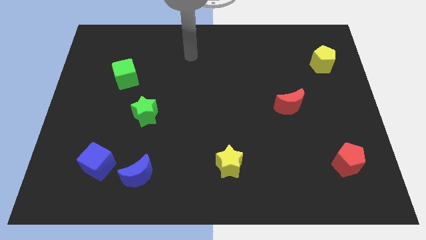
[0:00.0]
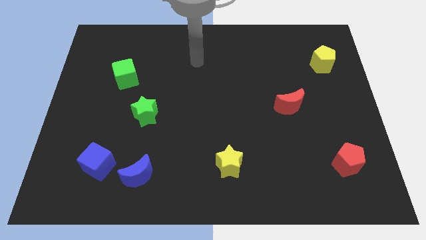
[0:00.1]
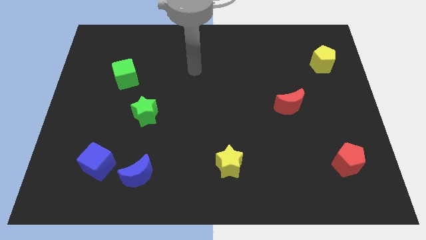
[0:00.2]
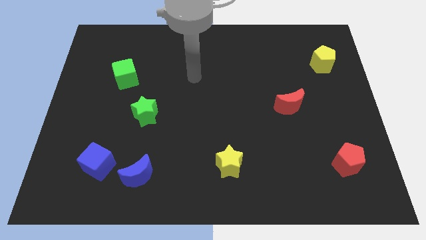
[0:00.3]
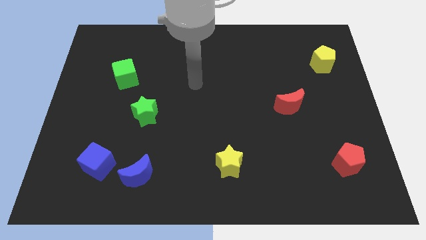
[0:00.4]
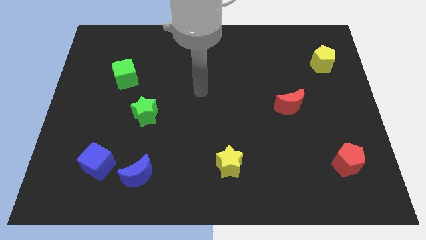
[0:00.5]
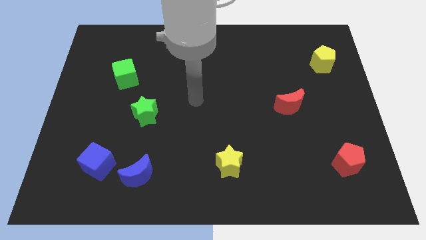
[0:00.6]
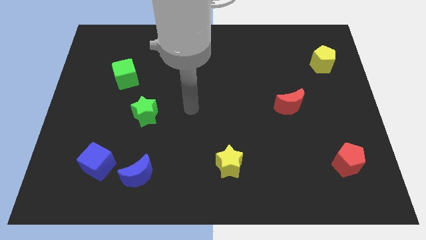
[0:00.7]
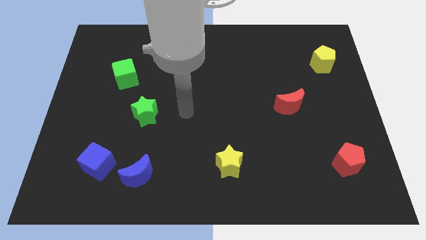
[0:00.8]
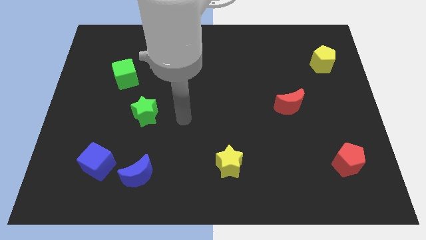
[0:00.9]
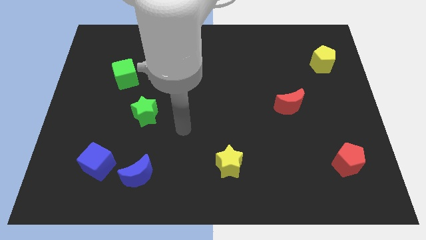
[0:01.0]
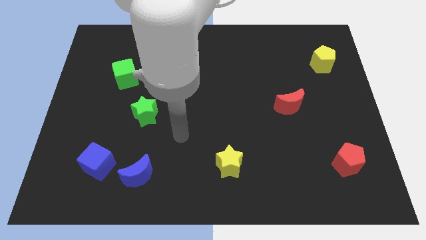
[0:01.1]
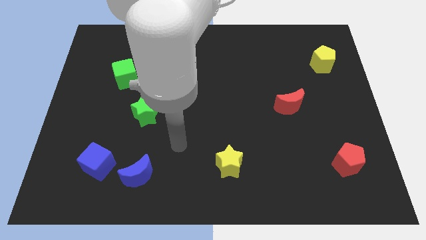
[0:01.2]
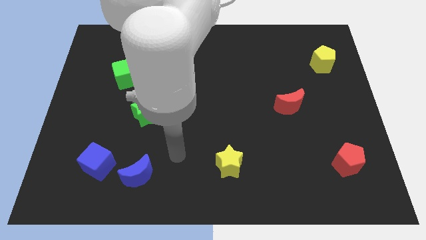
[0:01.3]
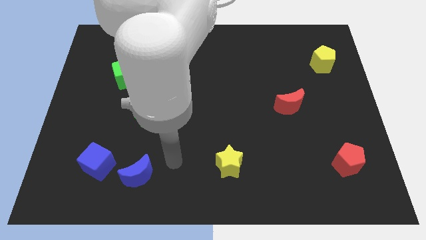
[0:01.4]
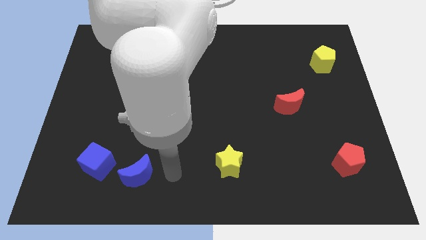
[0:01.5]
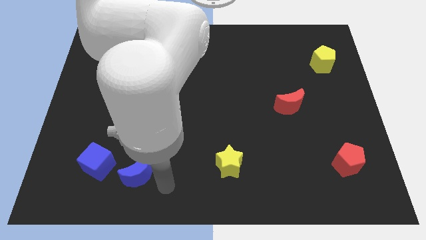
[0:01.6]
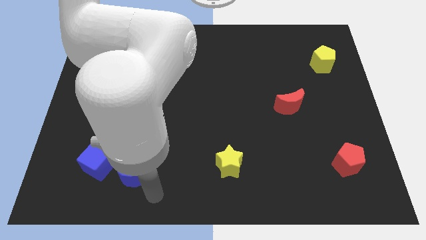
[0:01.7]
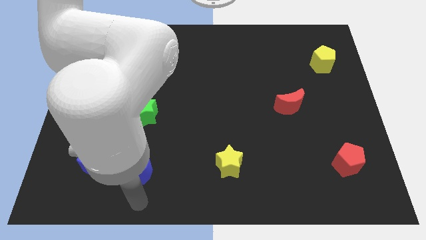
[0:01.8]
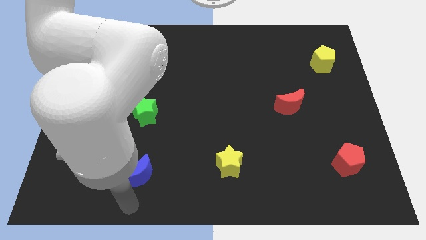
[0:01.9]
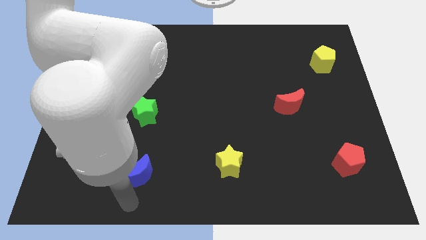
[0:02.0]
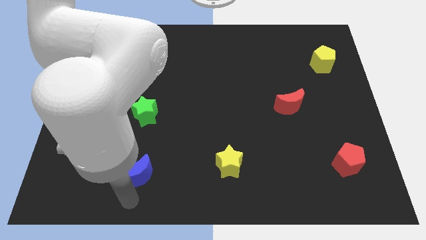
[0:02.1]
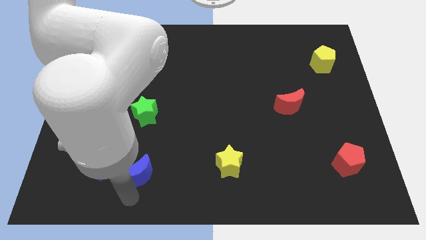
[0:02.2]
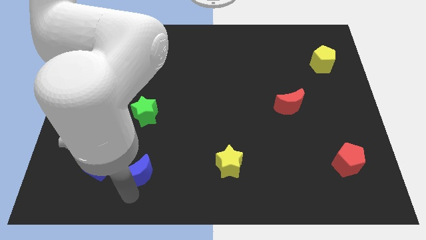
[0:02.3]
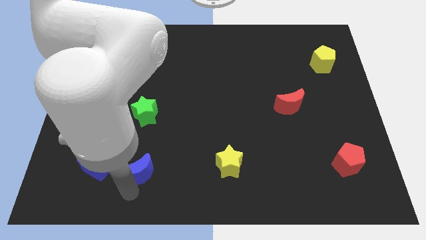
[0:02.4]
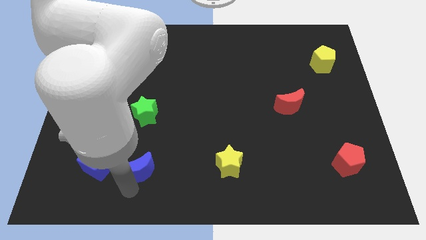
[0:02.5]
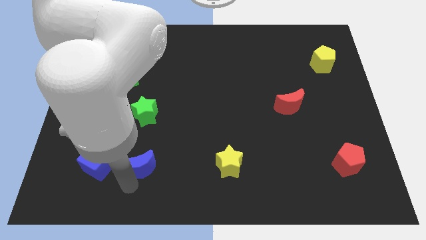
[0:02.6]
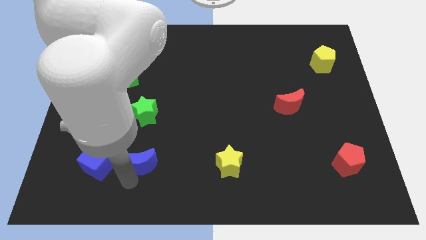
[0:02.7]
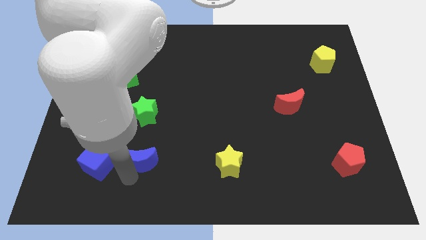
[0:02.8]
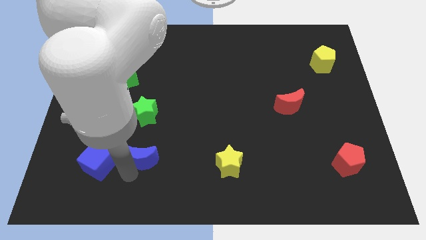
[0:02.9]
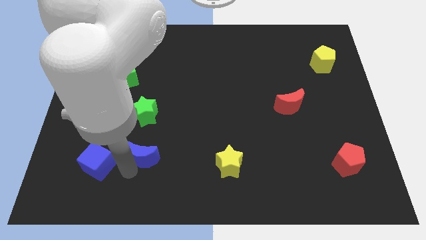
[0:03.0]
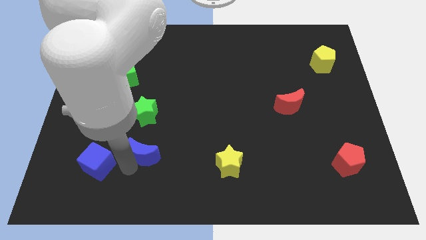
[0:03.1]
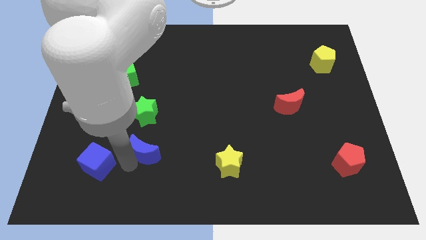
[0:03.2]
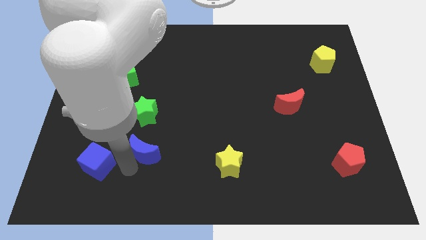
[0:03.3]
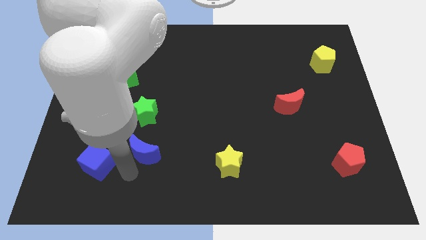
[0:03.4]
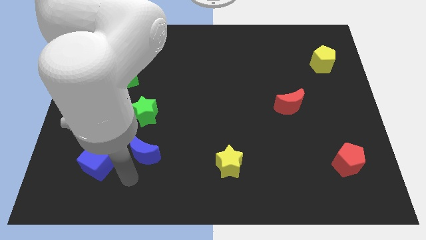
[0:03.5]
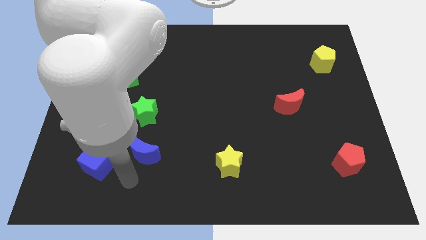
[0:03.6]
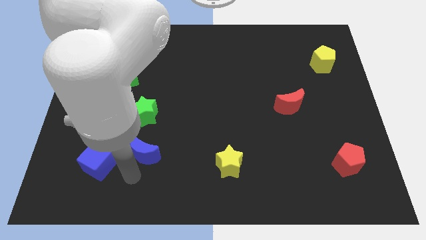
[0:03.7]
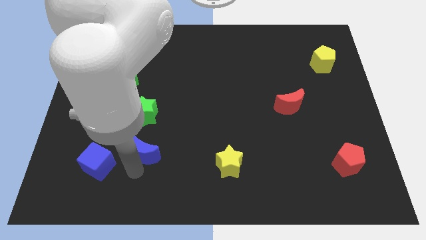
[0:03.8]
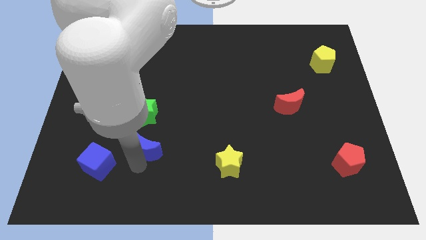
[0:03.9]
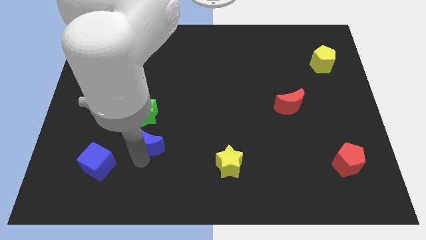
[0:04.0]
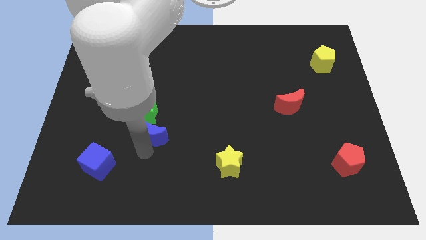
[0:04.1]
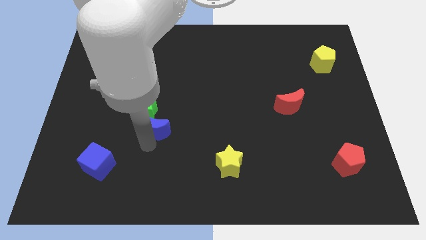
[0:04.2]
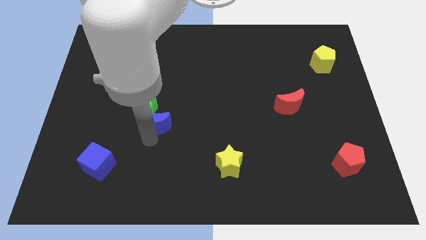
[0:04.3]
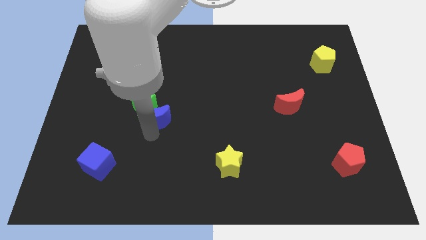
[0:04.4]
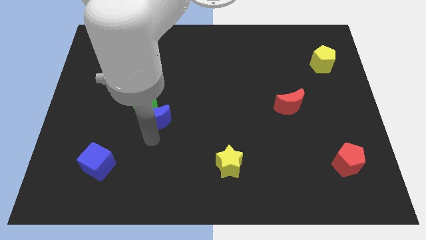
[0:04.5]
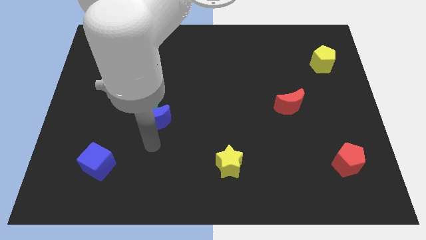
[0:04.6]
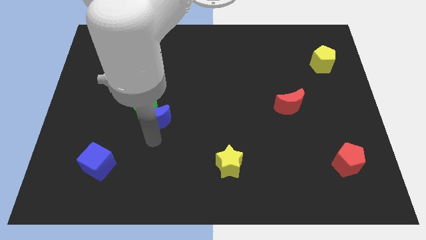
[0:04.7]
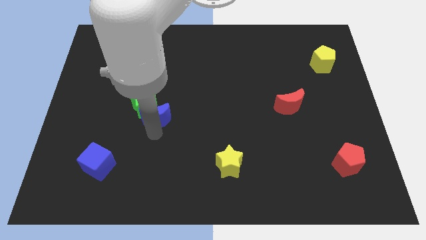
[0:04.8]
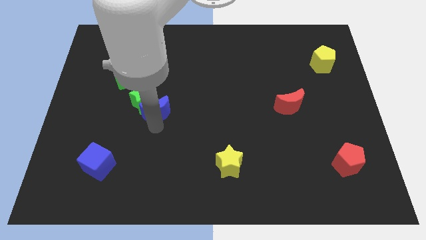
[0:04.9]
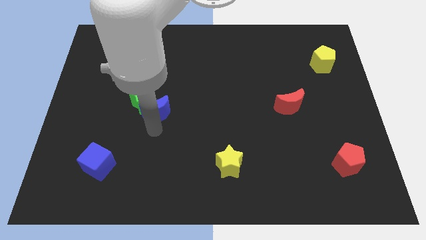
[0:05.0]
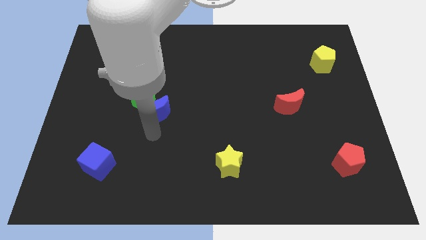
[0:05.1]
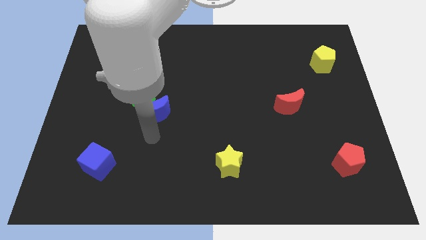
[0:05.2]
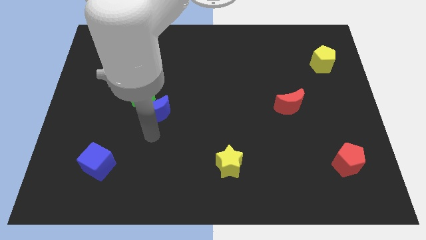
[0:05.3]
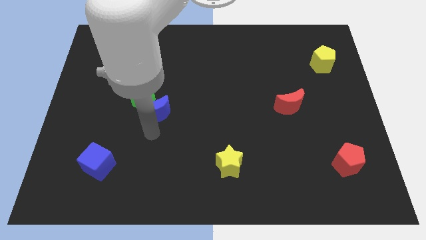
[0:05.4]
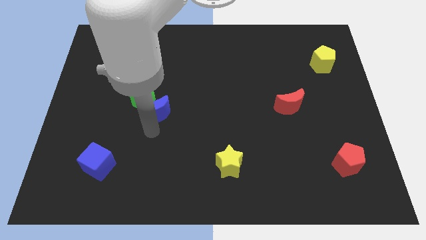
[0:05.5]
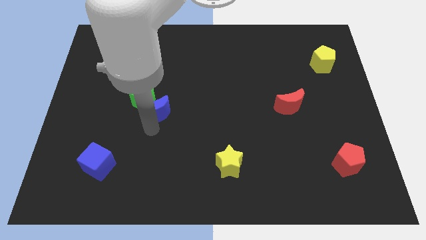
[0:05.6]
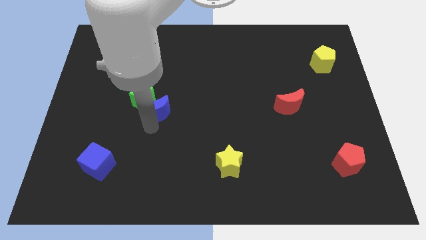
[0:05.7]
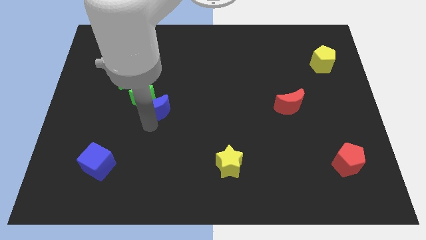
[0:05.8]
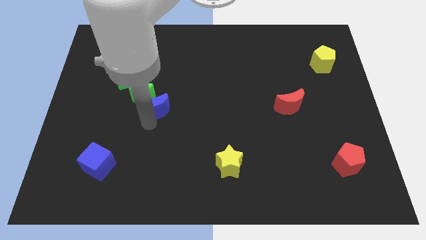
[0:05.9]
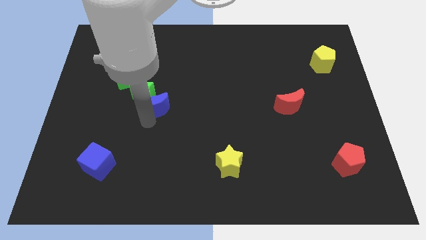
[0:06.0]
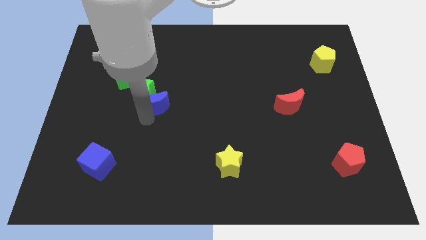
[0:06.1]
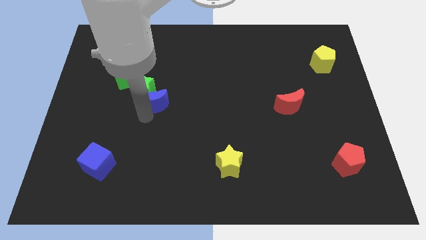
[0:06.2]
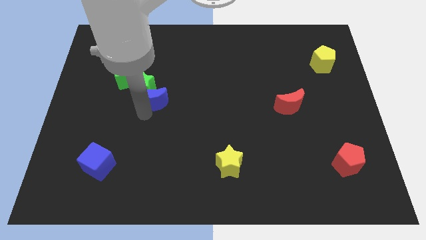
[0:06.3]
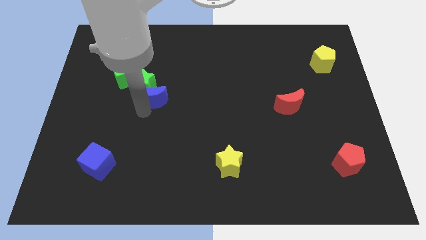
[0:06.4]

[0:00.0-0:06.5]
slide the blue moon upwards

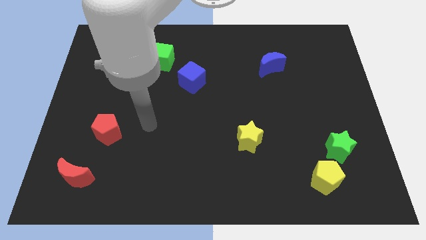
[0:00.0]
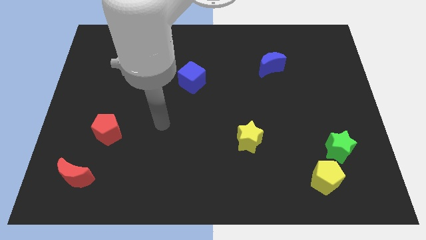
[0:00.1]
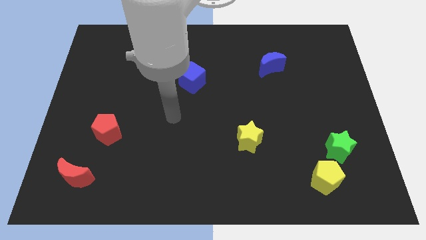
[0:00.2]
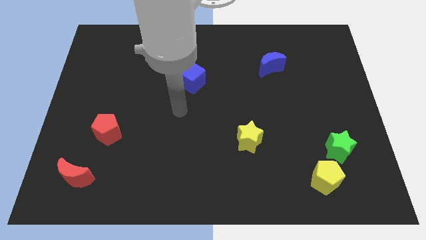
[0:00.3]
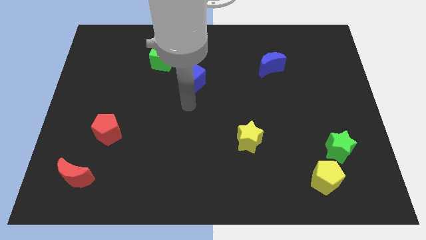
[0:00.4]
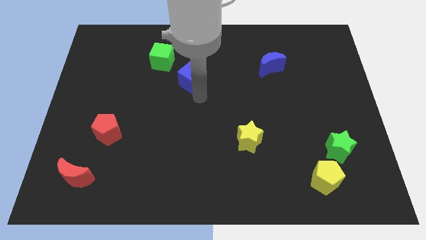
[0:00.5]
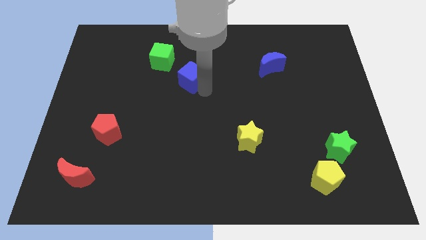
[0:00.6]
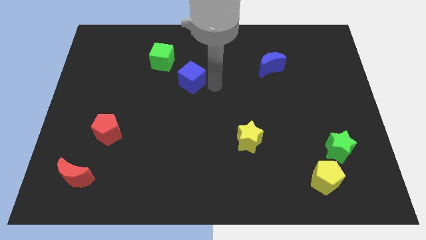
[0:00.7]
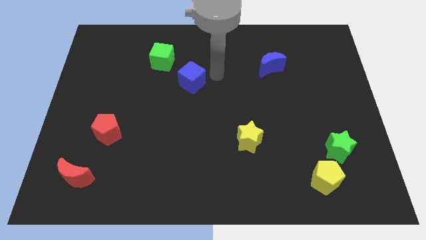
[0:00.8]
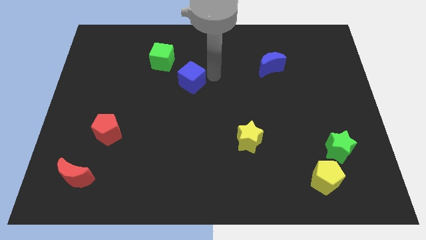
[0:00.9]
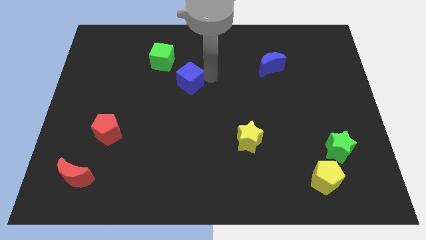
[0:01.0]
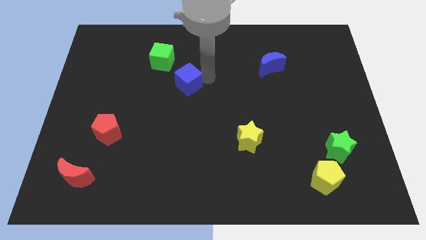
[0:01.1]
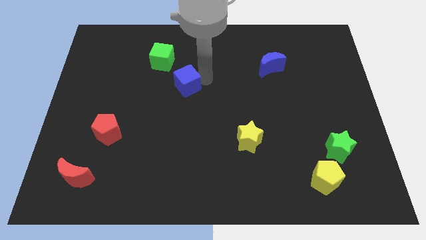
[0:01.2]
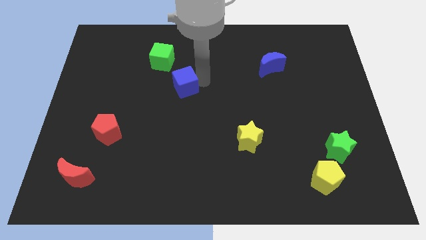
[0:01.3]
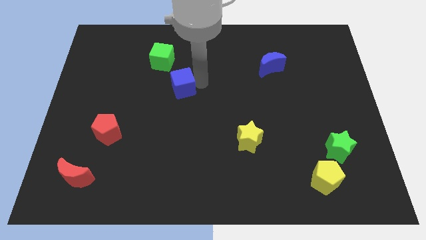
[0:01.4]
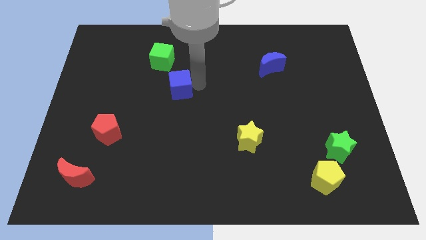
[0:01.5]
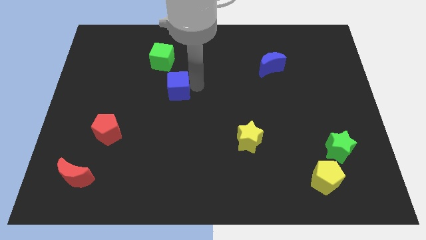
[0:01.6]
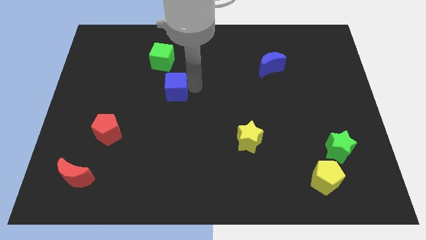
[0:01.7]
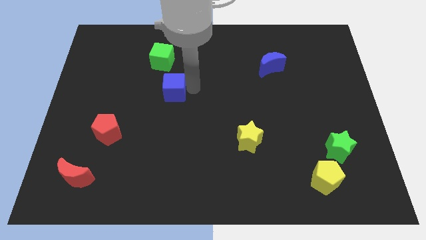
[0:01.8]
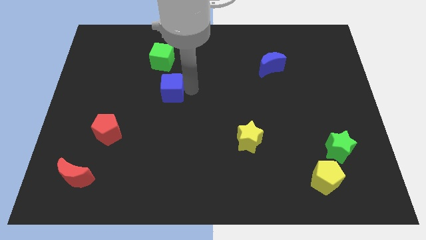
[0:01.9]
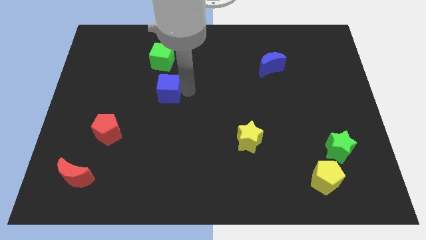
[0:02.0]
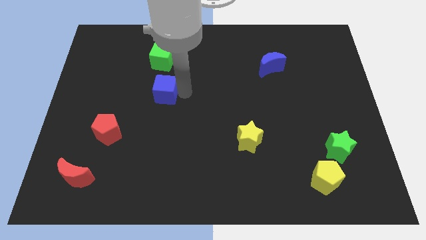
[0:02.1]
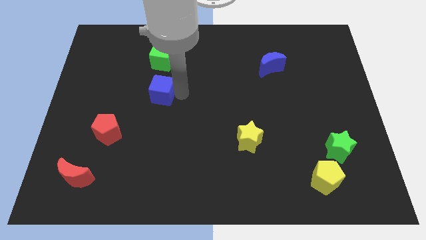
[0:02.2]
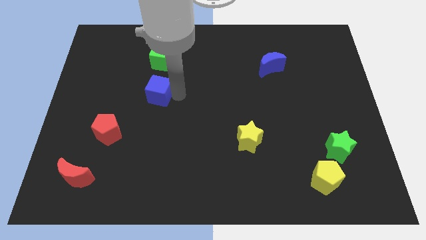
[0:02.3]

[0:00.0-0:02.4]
move the blue cube left a little bit
